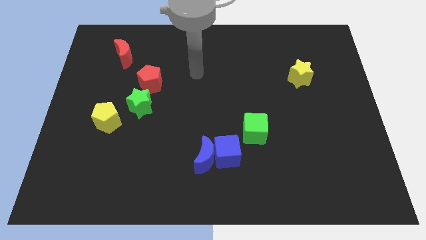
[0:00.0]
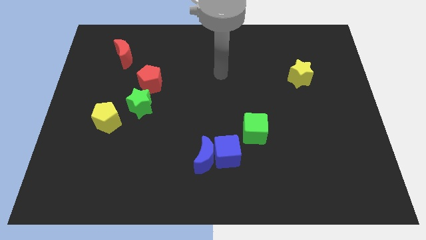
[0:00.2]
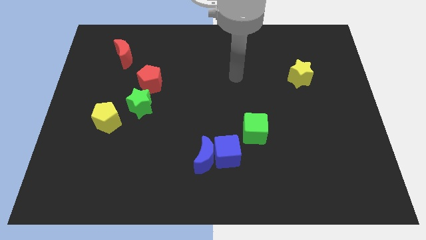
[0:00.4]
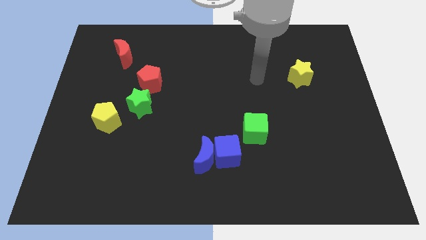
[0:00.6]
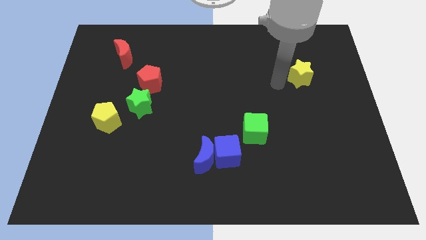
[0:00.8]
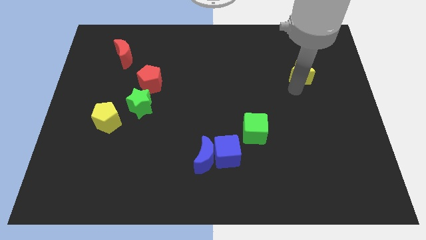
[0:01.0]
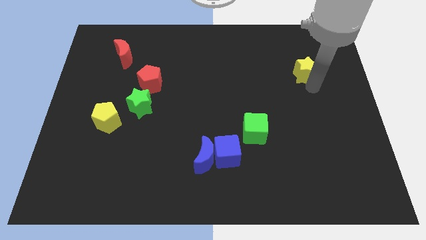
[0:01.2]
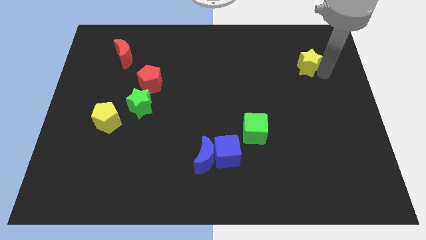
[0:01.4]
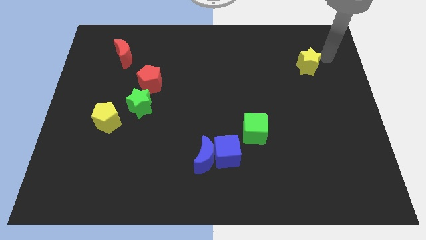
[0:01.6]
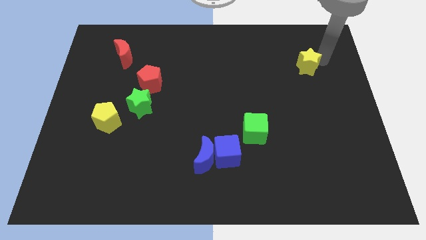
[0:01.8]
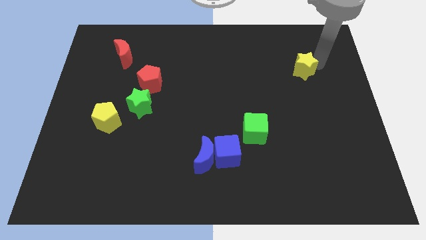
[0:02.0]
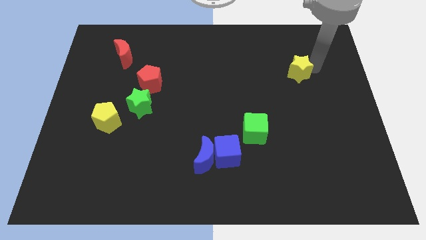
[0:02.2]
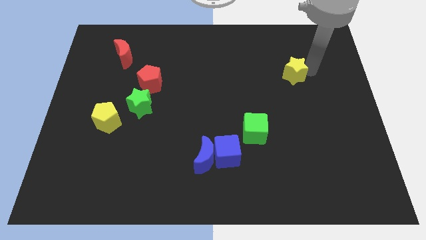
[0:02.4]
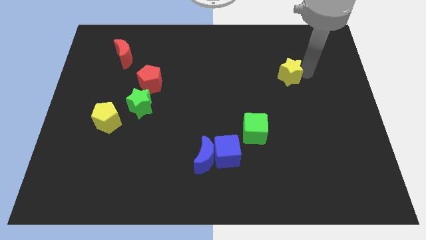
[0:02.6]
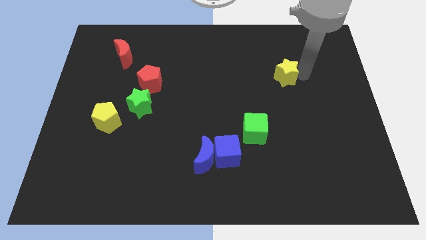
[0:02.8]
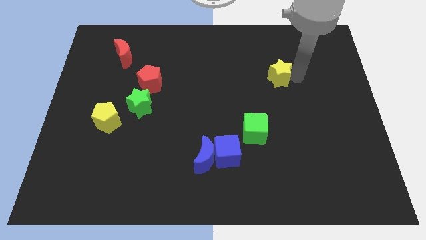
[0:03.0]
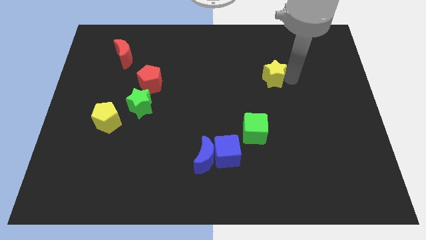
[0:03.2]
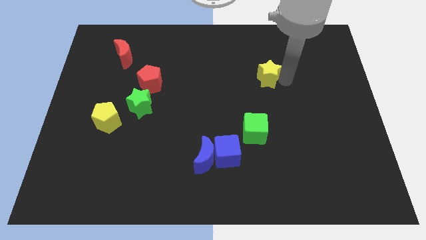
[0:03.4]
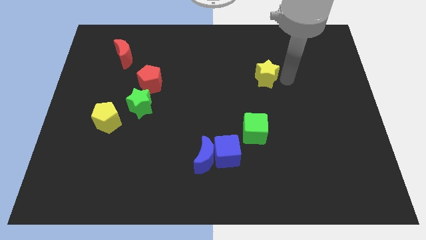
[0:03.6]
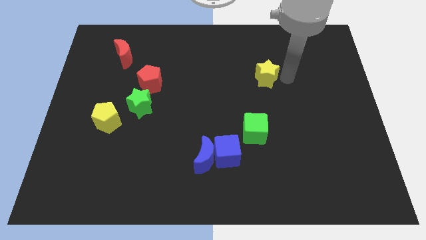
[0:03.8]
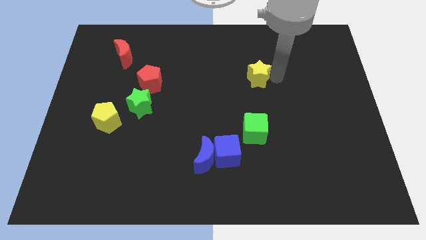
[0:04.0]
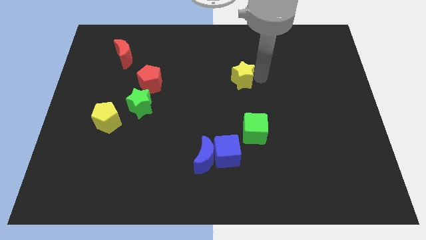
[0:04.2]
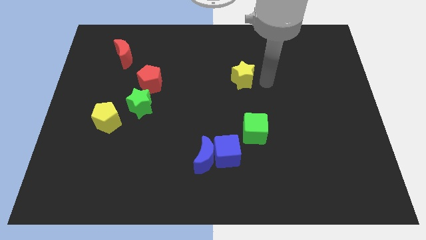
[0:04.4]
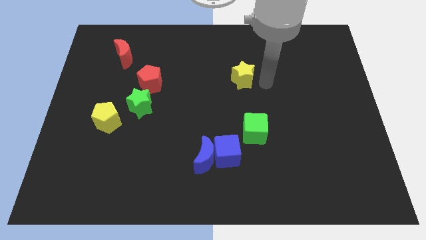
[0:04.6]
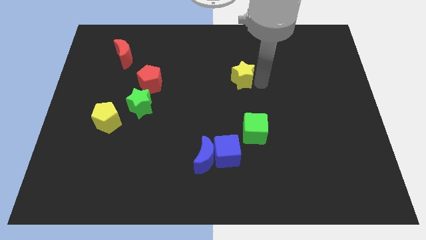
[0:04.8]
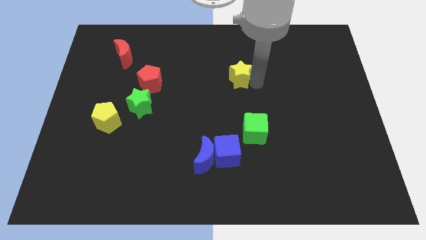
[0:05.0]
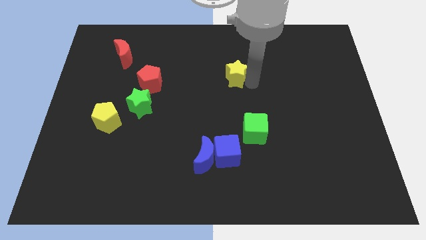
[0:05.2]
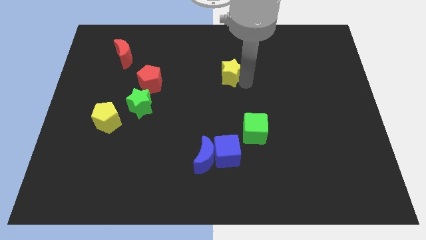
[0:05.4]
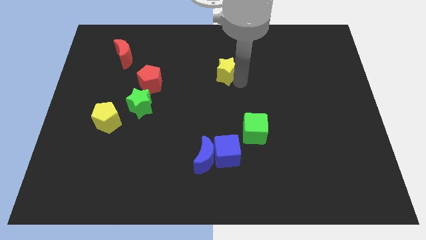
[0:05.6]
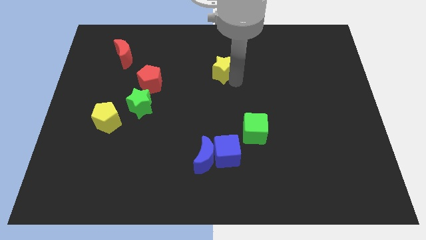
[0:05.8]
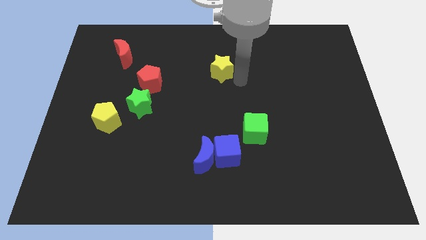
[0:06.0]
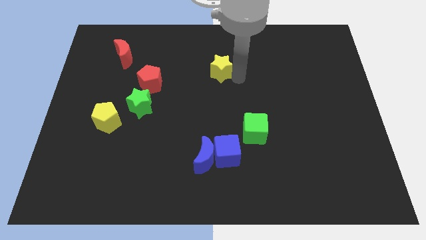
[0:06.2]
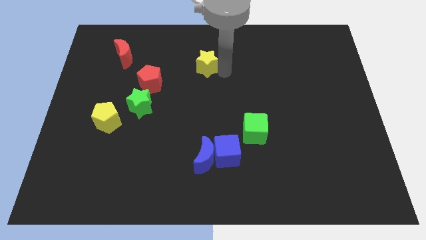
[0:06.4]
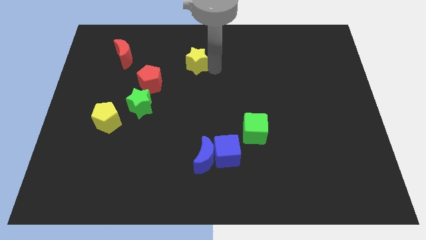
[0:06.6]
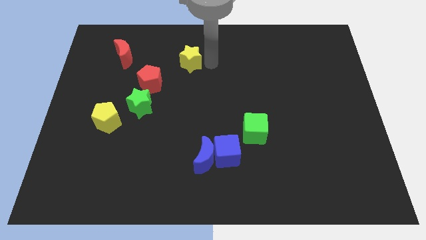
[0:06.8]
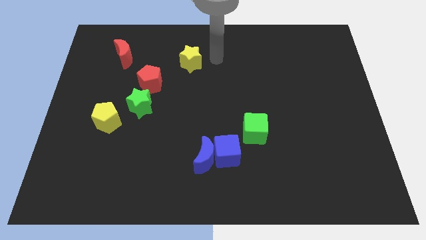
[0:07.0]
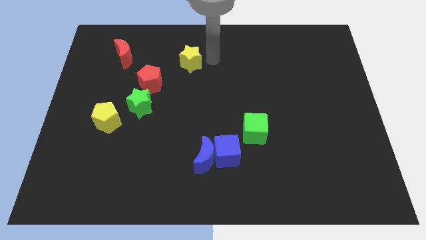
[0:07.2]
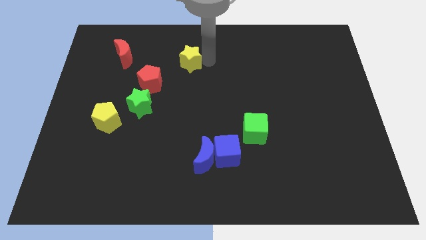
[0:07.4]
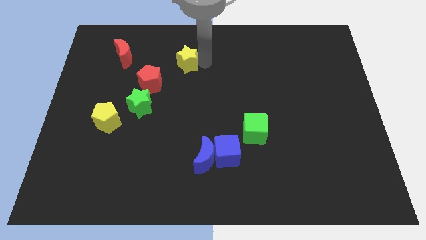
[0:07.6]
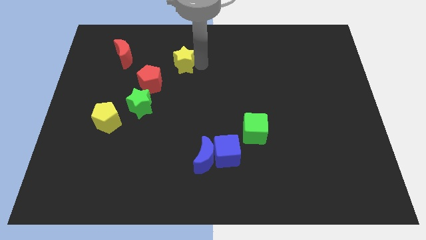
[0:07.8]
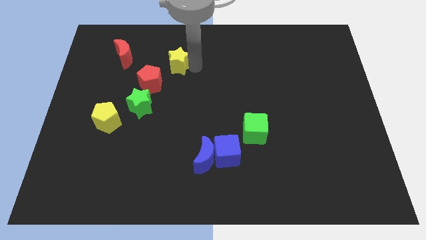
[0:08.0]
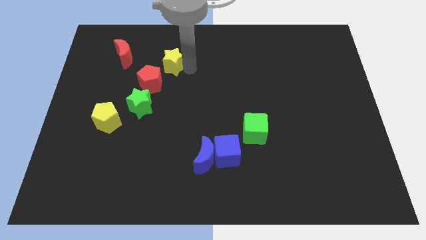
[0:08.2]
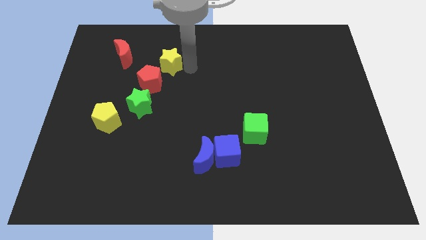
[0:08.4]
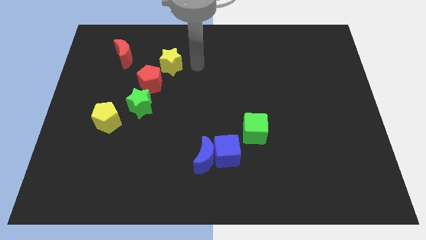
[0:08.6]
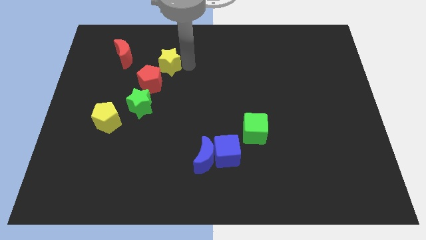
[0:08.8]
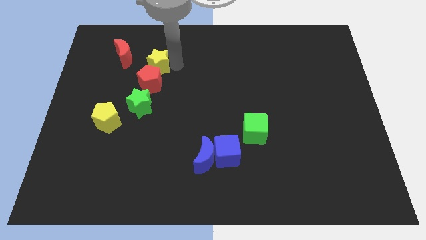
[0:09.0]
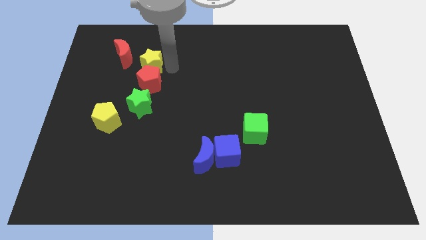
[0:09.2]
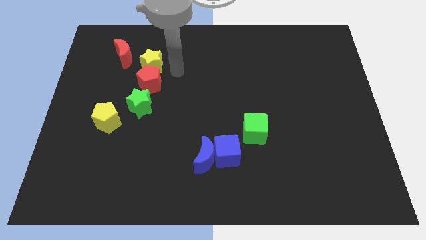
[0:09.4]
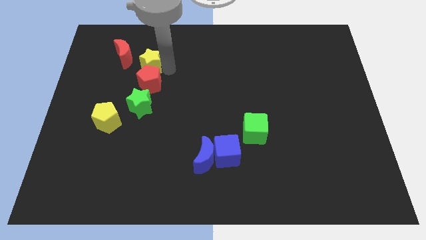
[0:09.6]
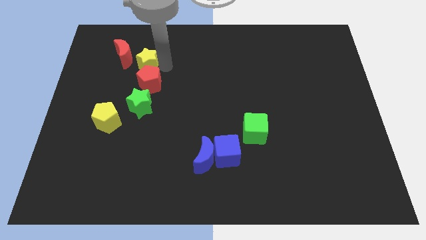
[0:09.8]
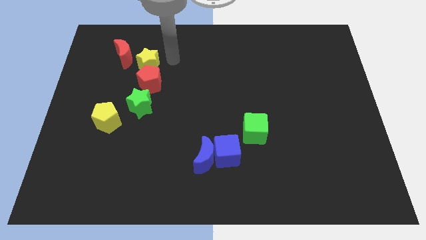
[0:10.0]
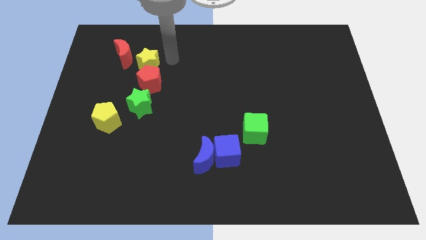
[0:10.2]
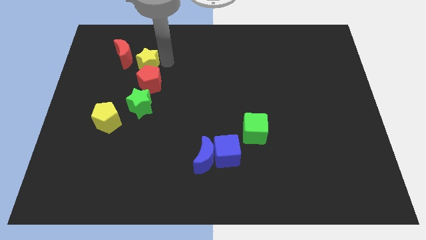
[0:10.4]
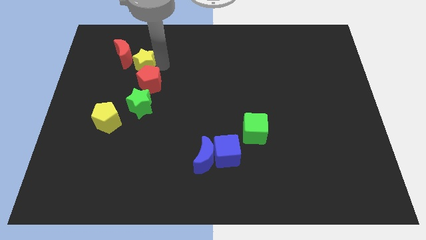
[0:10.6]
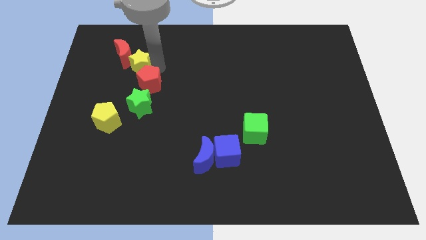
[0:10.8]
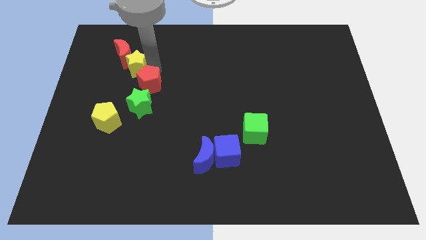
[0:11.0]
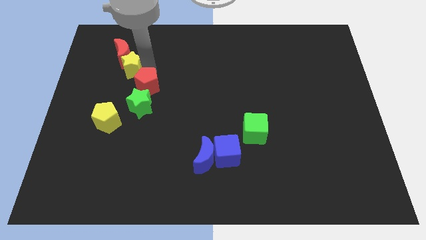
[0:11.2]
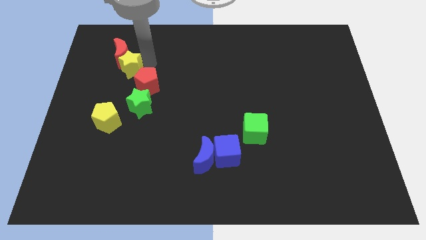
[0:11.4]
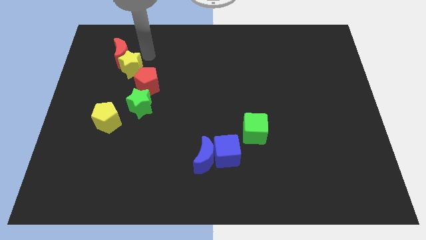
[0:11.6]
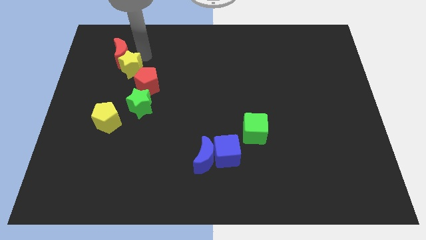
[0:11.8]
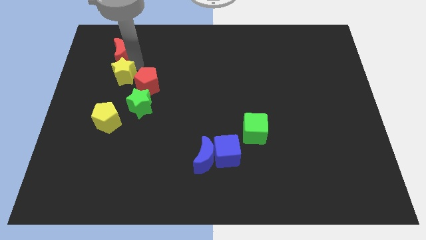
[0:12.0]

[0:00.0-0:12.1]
slide the yellow star to the top side of the yellow pentagon

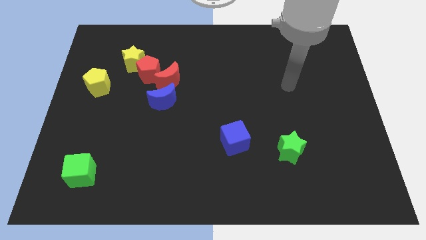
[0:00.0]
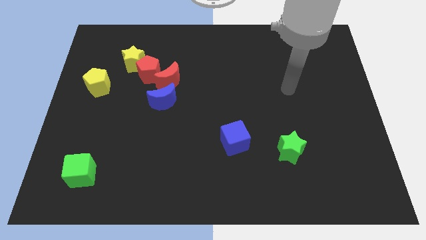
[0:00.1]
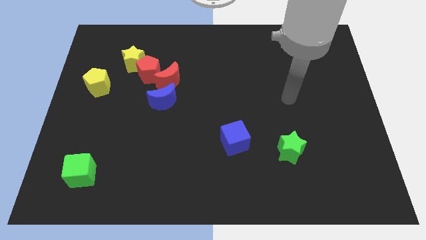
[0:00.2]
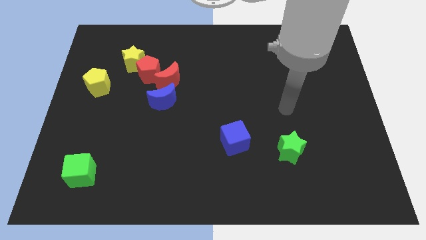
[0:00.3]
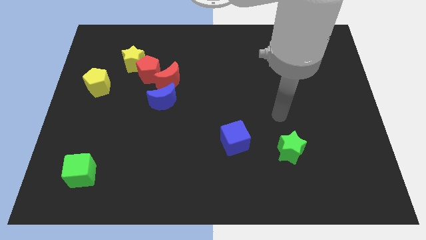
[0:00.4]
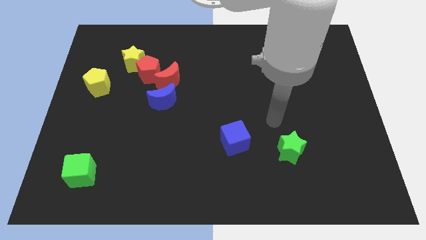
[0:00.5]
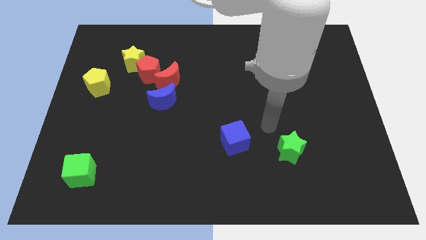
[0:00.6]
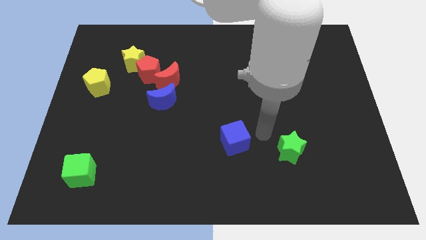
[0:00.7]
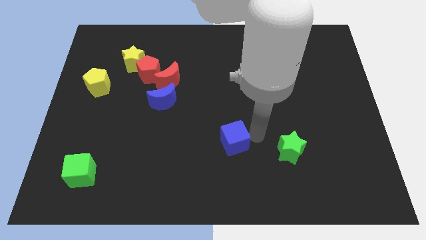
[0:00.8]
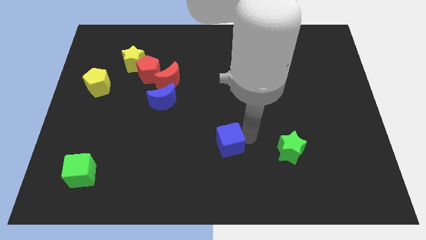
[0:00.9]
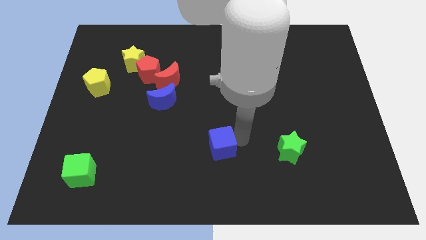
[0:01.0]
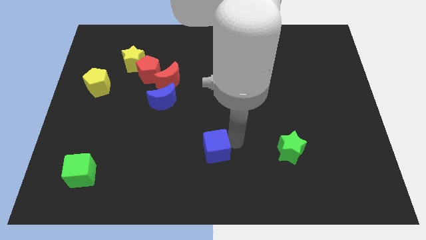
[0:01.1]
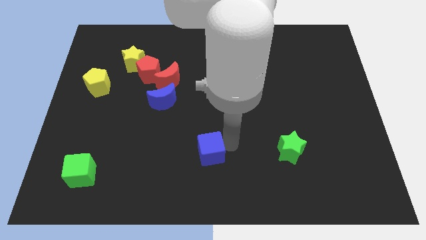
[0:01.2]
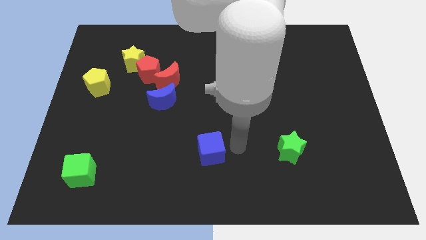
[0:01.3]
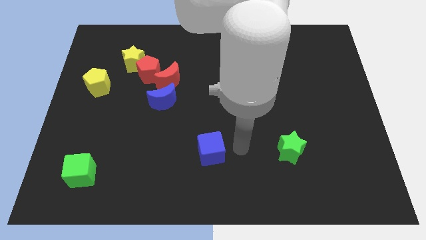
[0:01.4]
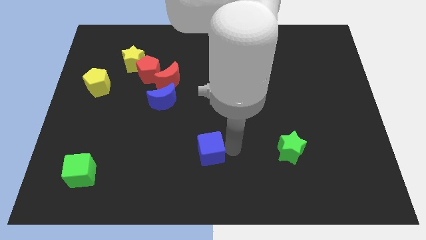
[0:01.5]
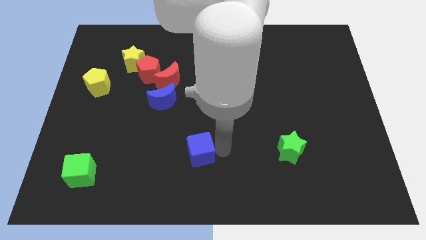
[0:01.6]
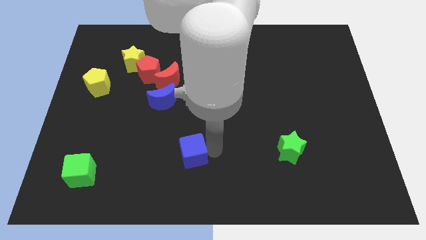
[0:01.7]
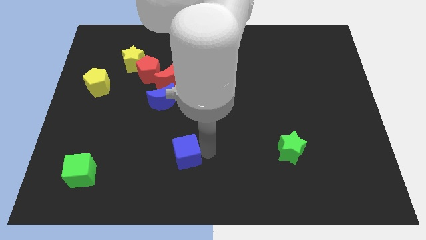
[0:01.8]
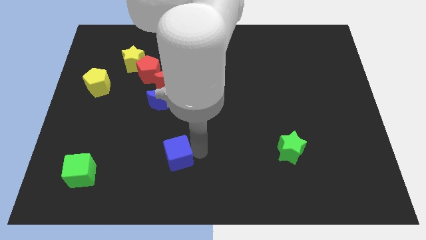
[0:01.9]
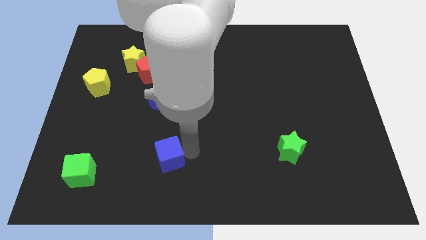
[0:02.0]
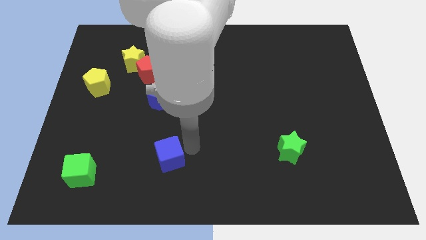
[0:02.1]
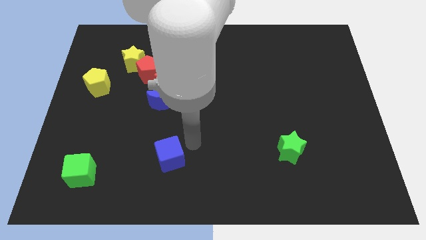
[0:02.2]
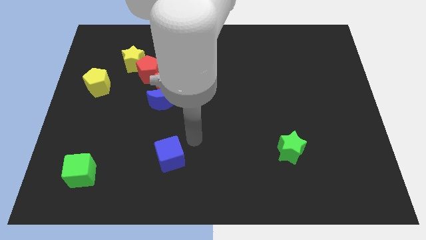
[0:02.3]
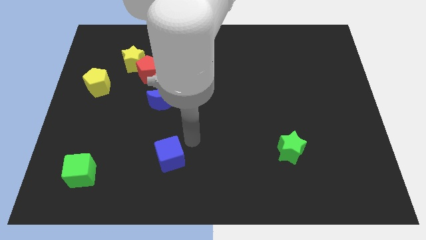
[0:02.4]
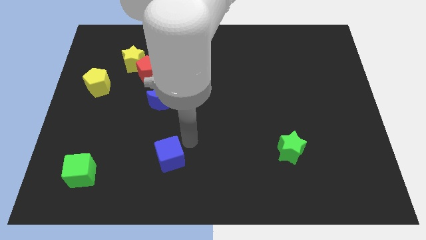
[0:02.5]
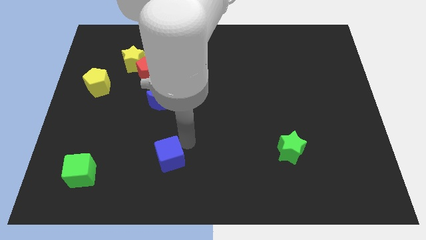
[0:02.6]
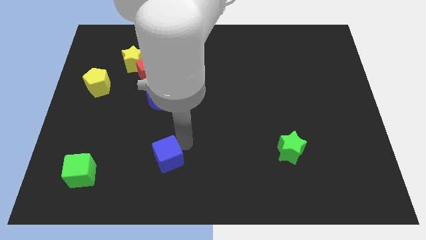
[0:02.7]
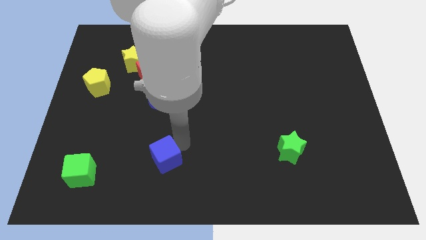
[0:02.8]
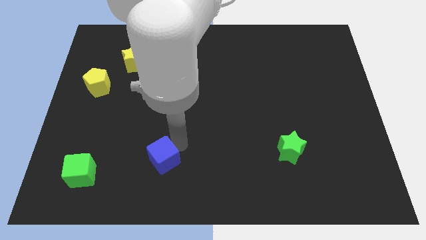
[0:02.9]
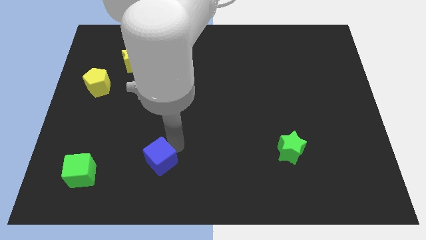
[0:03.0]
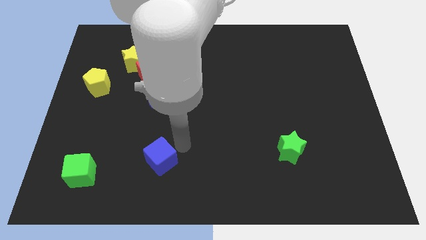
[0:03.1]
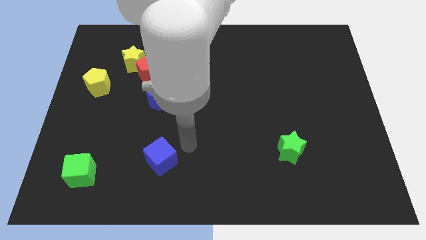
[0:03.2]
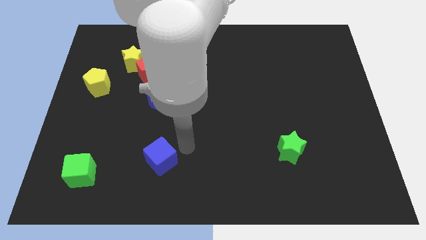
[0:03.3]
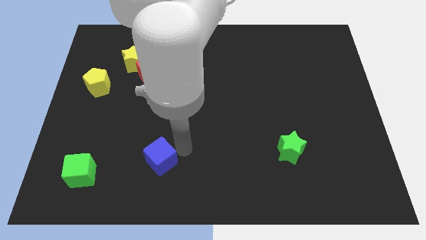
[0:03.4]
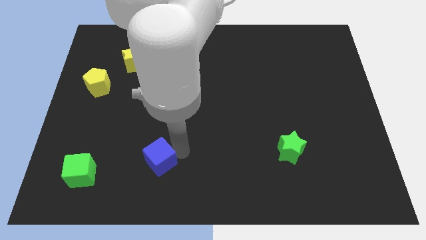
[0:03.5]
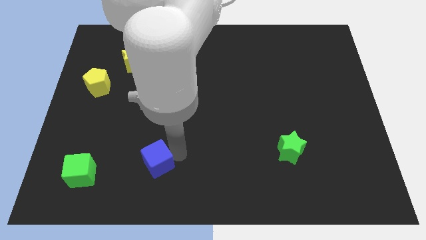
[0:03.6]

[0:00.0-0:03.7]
move the blue cube right of the green cube
